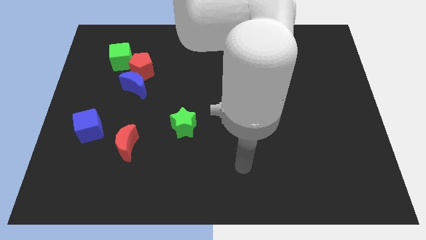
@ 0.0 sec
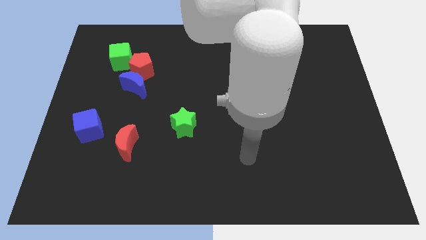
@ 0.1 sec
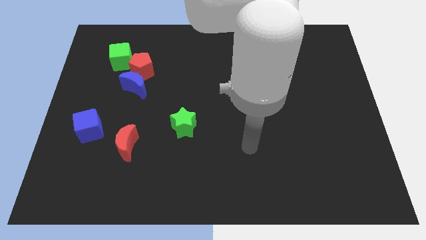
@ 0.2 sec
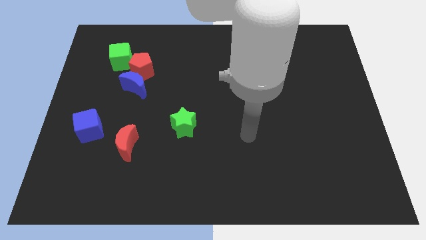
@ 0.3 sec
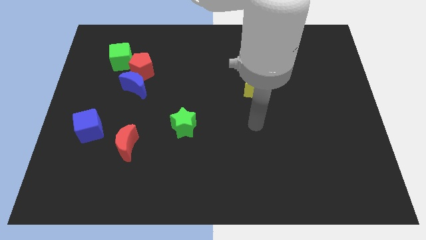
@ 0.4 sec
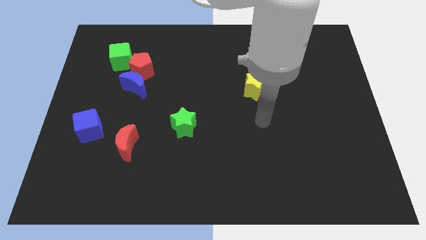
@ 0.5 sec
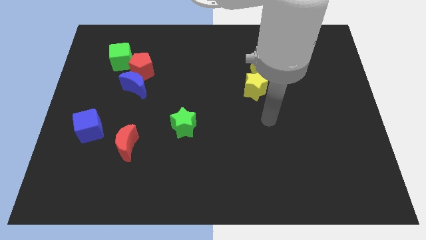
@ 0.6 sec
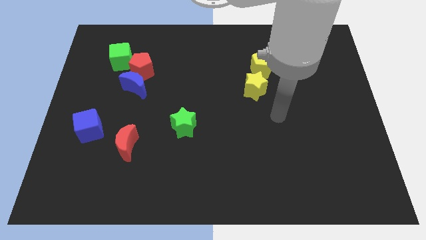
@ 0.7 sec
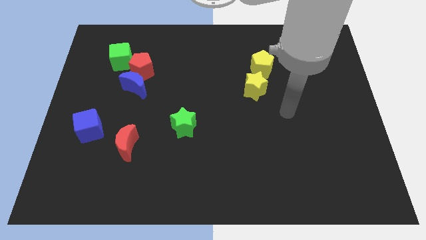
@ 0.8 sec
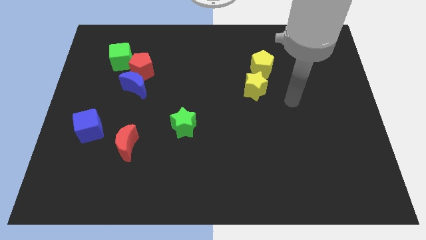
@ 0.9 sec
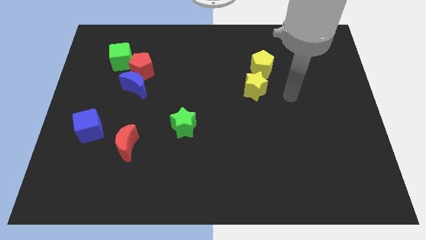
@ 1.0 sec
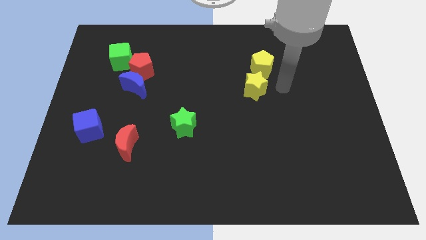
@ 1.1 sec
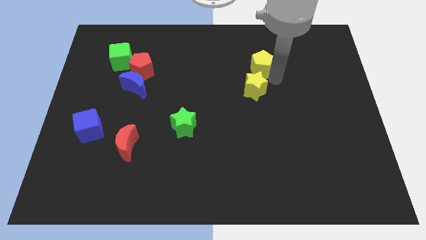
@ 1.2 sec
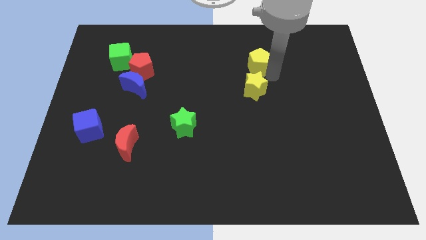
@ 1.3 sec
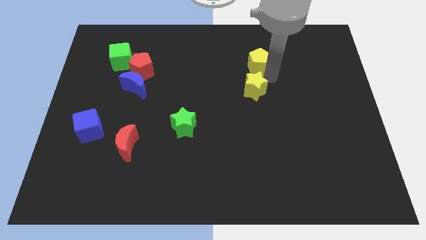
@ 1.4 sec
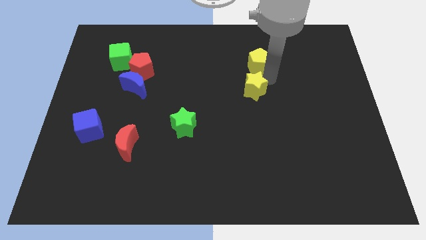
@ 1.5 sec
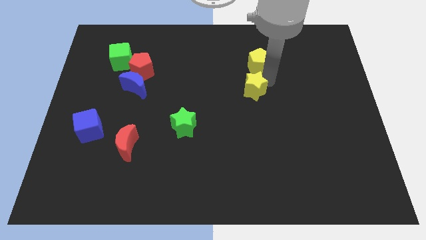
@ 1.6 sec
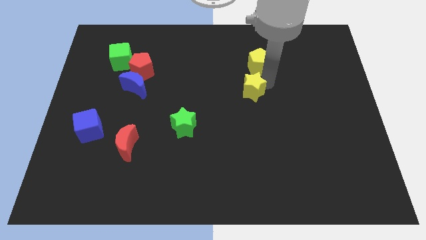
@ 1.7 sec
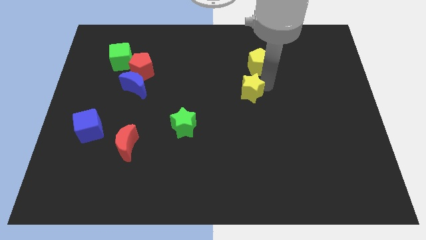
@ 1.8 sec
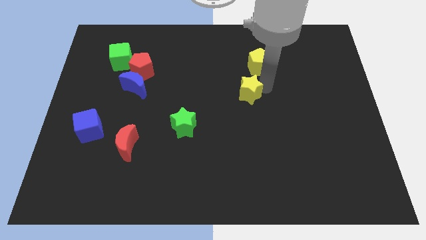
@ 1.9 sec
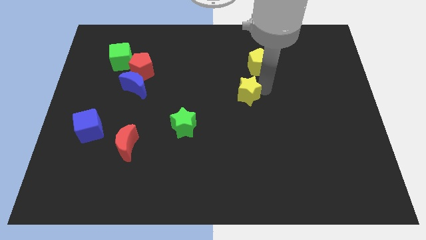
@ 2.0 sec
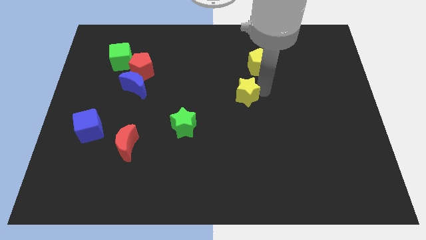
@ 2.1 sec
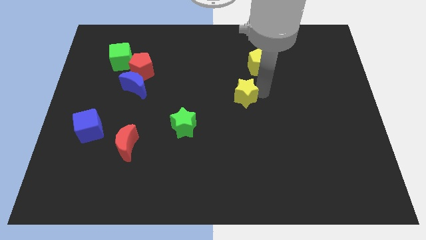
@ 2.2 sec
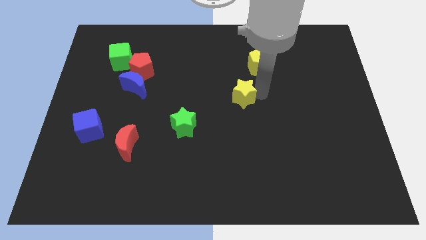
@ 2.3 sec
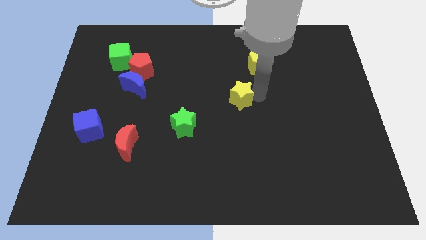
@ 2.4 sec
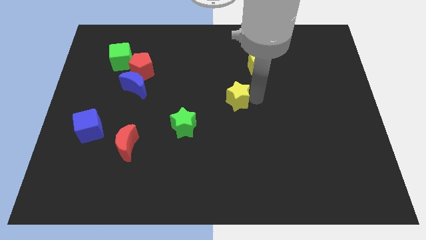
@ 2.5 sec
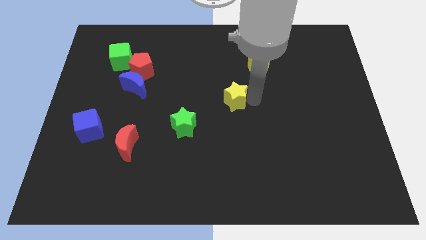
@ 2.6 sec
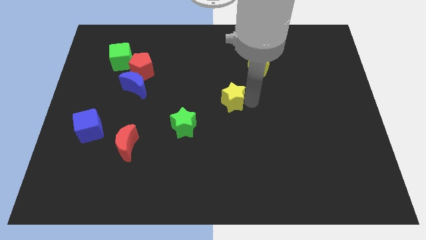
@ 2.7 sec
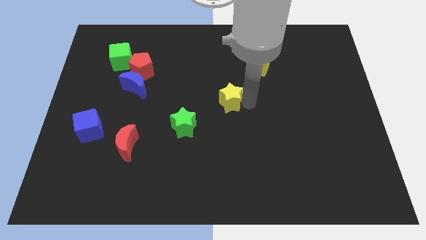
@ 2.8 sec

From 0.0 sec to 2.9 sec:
slide the yellow star a bit downwards and then to the left

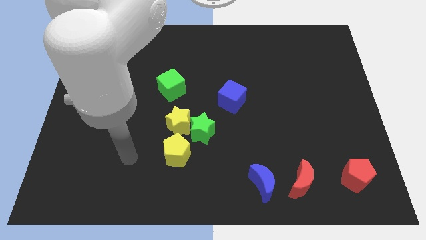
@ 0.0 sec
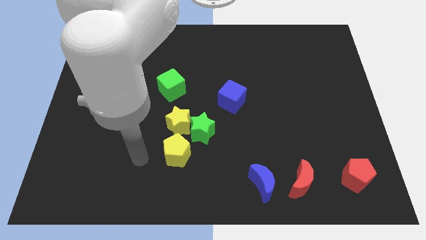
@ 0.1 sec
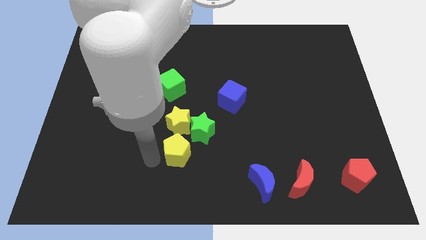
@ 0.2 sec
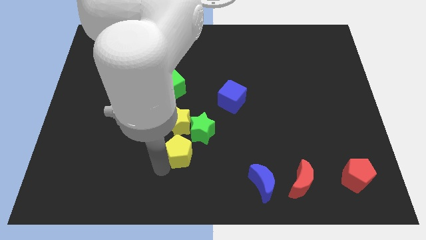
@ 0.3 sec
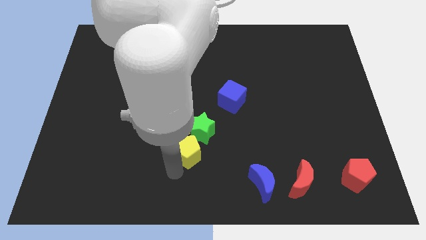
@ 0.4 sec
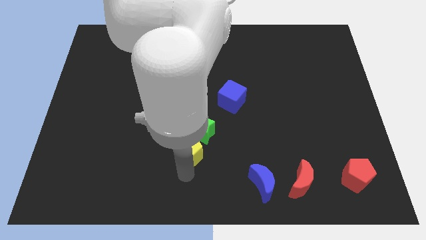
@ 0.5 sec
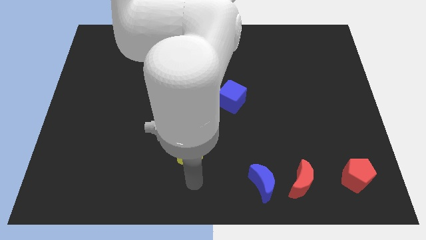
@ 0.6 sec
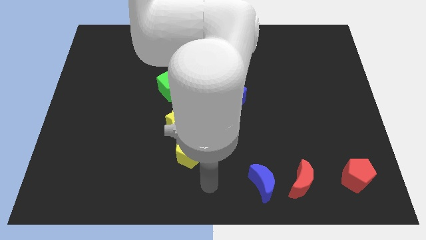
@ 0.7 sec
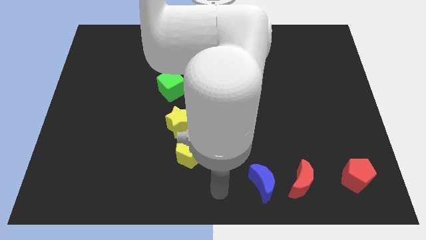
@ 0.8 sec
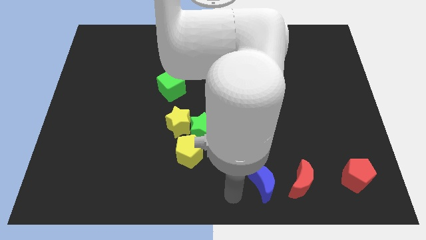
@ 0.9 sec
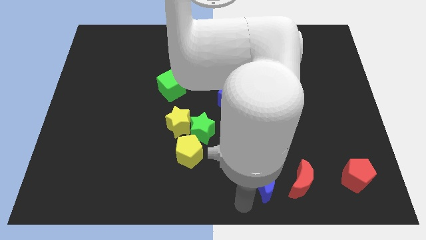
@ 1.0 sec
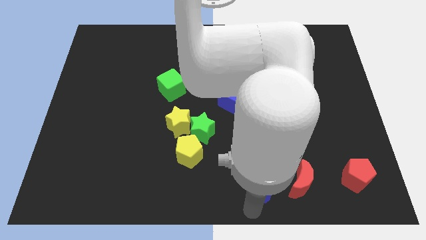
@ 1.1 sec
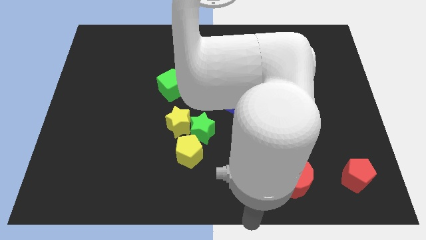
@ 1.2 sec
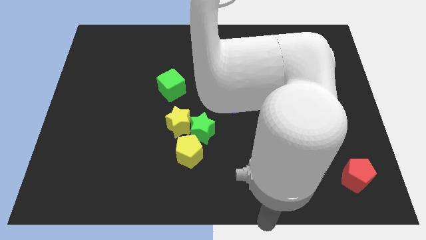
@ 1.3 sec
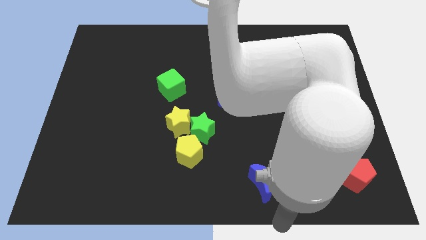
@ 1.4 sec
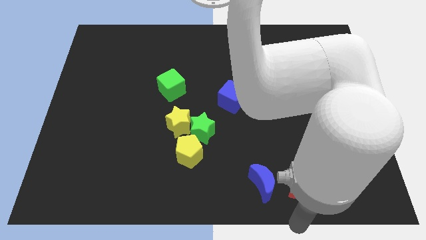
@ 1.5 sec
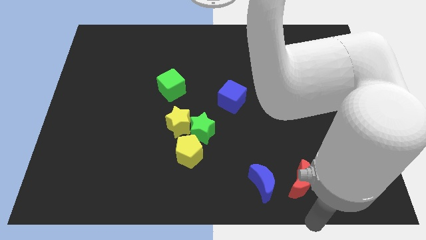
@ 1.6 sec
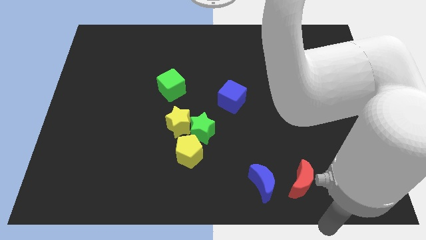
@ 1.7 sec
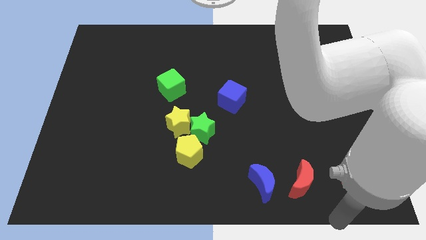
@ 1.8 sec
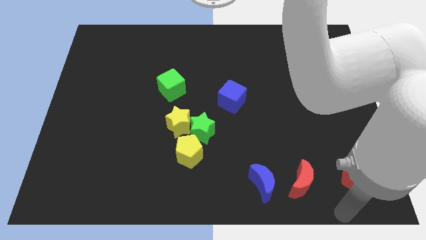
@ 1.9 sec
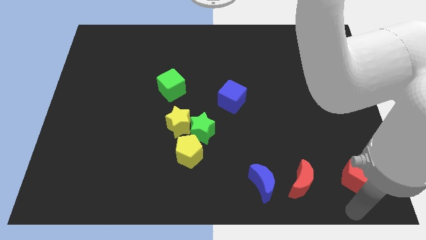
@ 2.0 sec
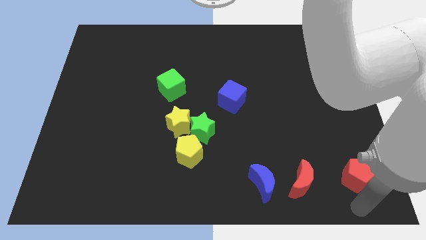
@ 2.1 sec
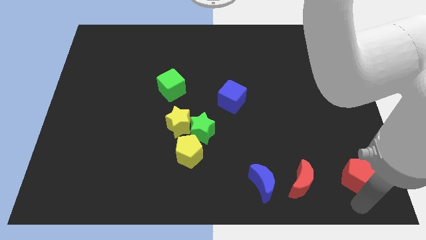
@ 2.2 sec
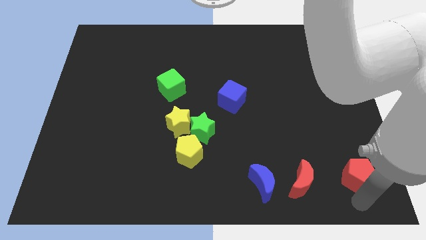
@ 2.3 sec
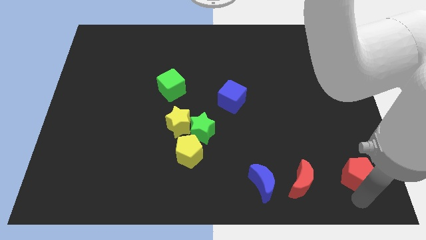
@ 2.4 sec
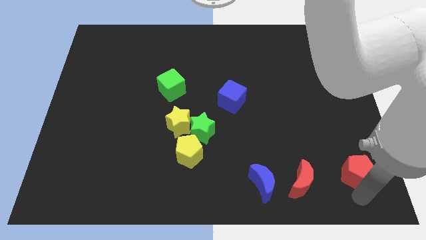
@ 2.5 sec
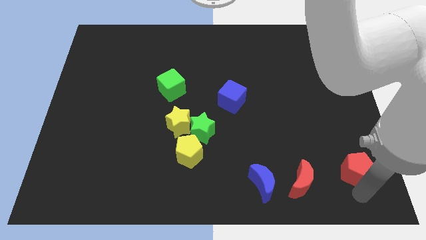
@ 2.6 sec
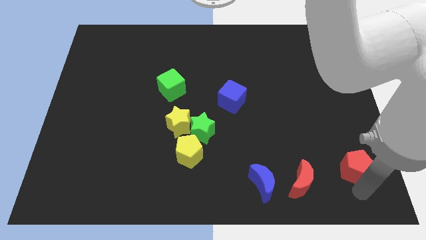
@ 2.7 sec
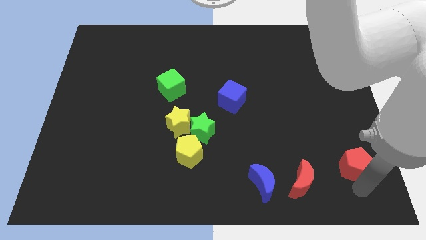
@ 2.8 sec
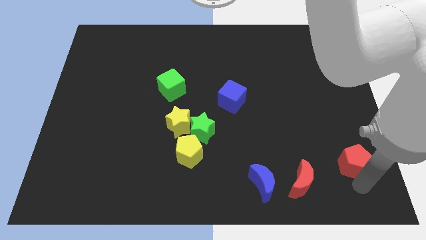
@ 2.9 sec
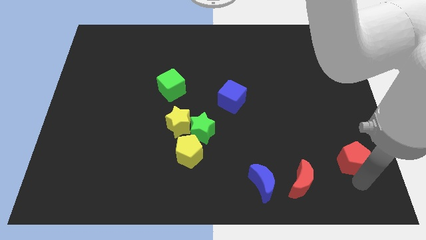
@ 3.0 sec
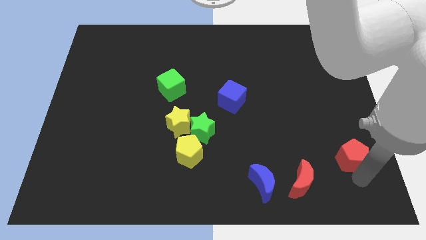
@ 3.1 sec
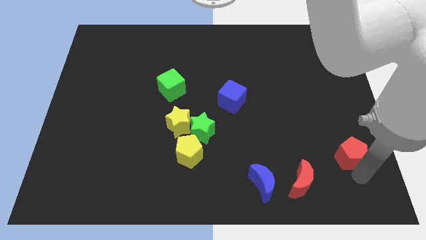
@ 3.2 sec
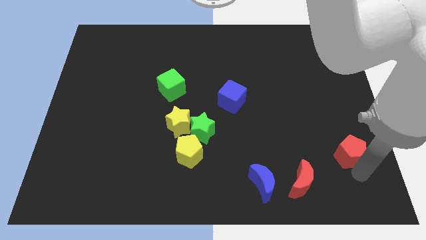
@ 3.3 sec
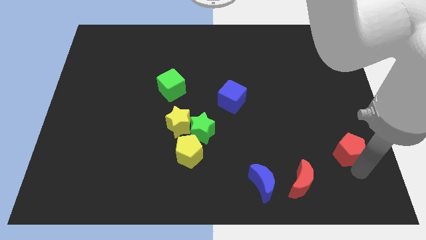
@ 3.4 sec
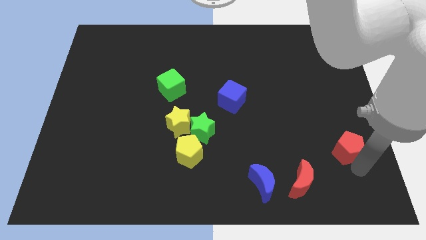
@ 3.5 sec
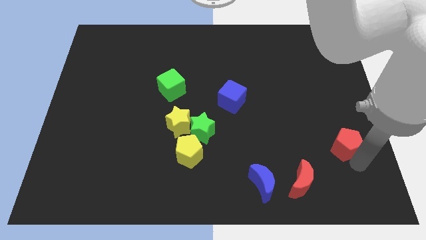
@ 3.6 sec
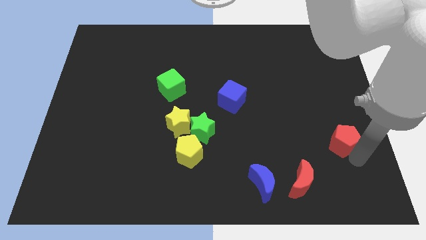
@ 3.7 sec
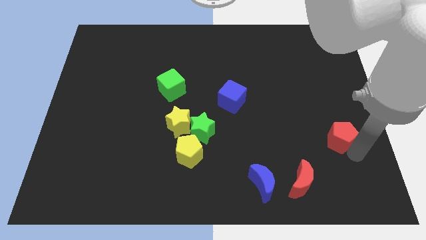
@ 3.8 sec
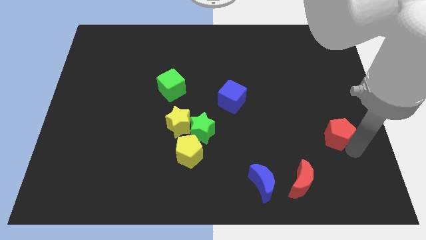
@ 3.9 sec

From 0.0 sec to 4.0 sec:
push the red pentagon diagonally upwards and to the left a little

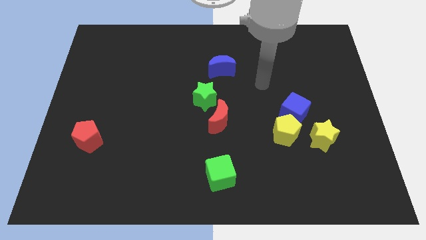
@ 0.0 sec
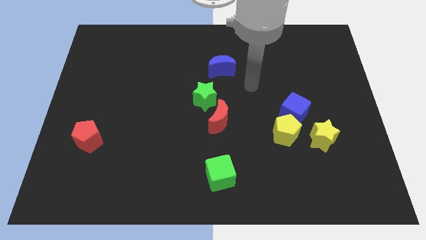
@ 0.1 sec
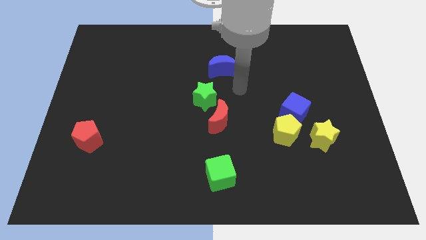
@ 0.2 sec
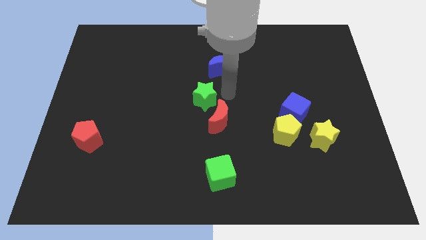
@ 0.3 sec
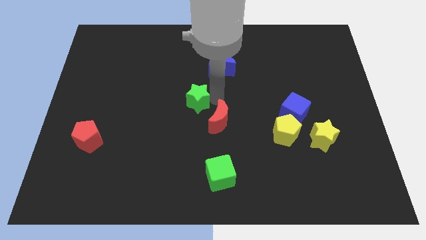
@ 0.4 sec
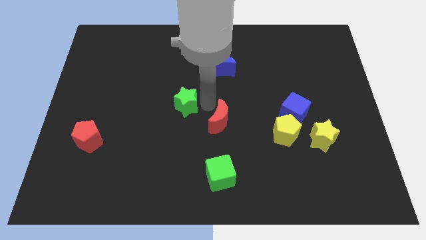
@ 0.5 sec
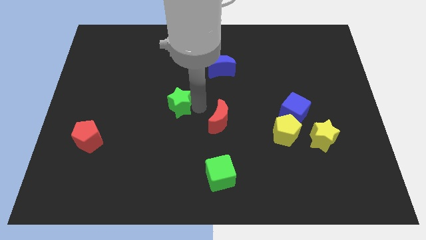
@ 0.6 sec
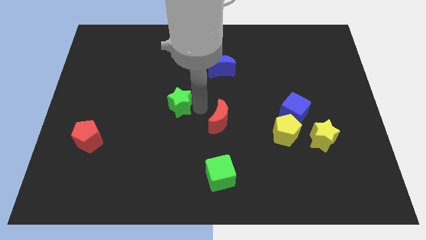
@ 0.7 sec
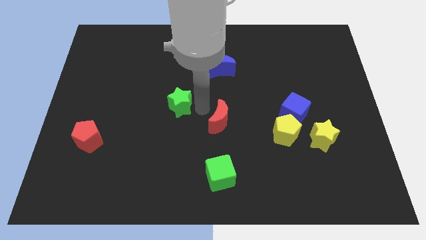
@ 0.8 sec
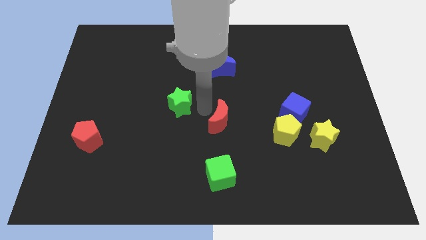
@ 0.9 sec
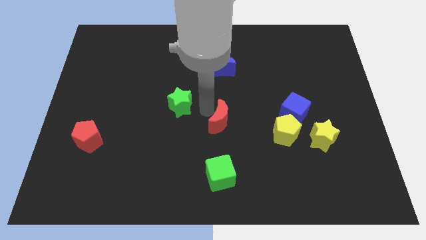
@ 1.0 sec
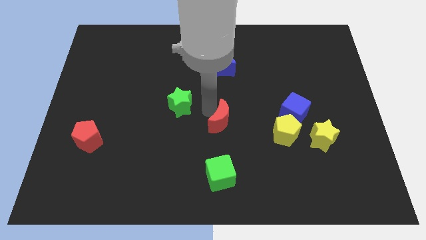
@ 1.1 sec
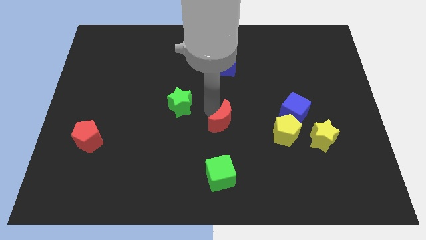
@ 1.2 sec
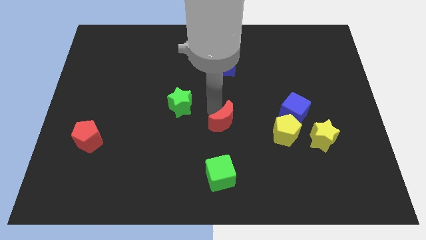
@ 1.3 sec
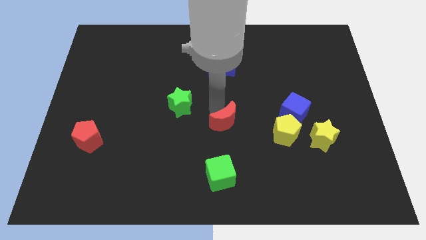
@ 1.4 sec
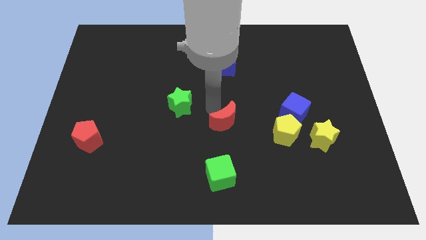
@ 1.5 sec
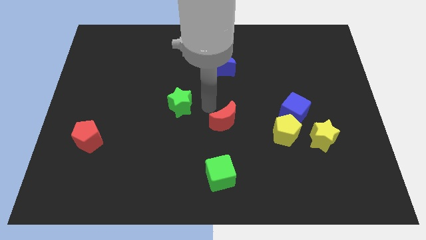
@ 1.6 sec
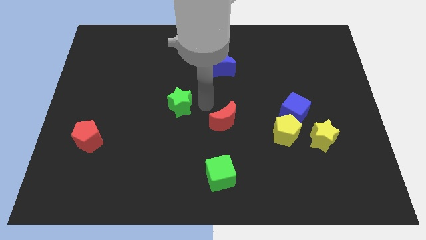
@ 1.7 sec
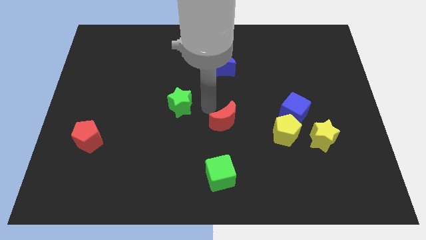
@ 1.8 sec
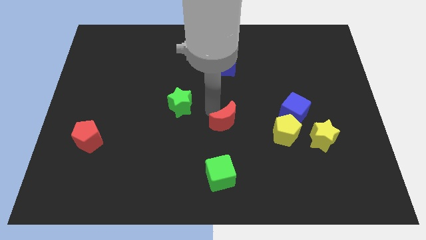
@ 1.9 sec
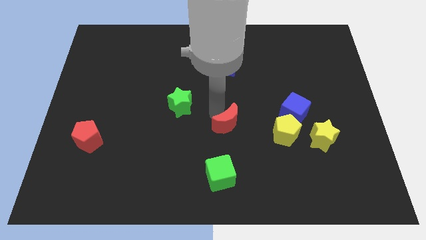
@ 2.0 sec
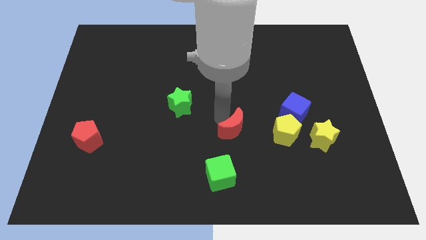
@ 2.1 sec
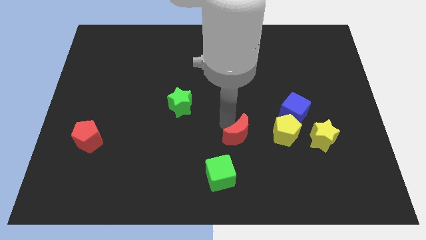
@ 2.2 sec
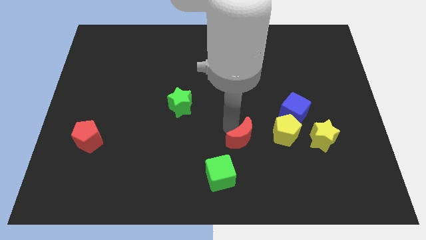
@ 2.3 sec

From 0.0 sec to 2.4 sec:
slide the red moon diagonally downwards and right somewhat
